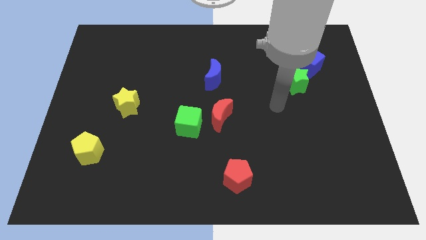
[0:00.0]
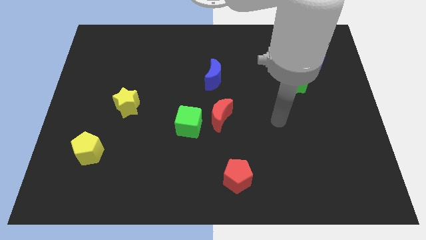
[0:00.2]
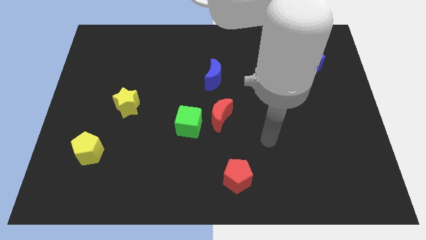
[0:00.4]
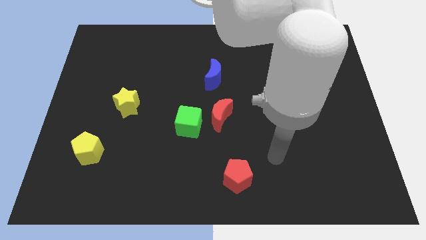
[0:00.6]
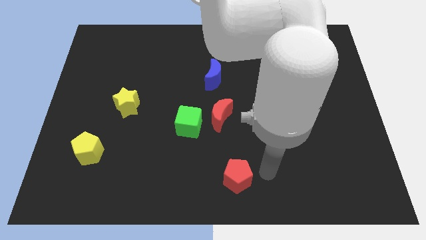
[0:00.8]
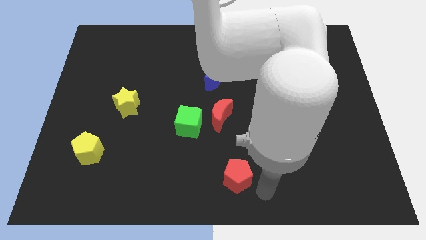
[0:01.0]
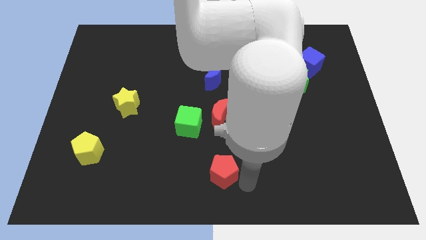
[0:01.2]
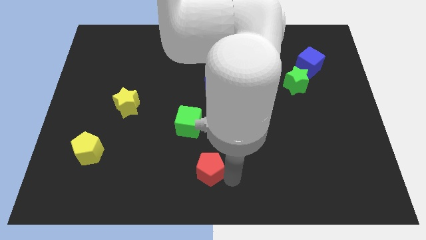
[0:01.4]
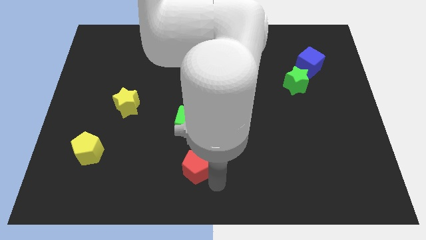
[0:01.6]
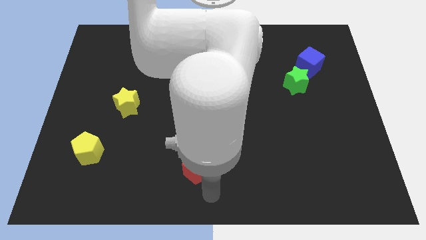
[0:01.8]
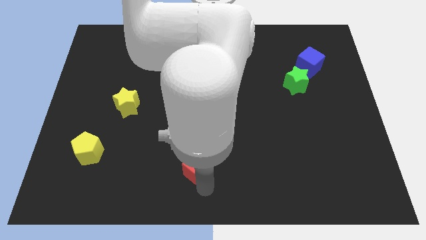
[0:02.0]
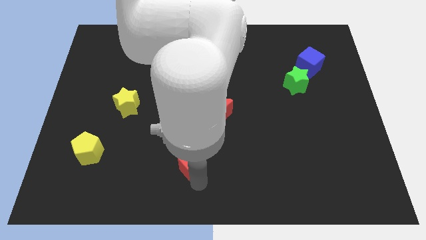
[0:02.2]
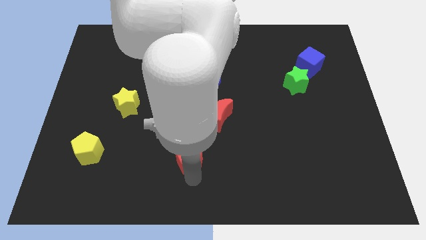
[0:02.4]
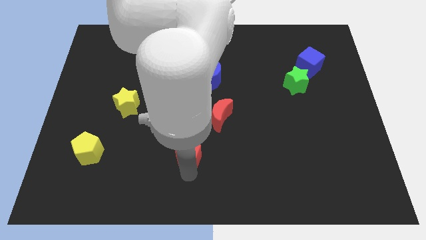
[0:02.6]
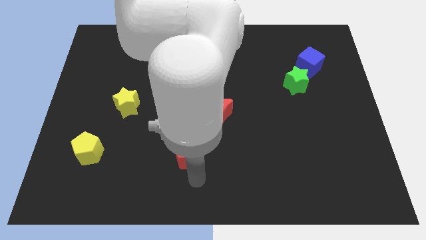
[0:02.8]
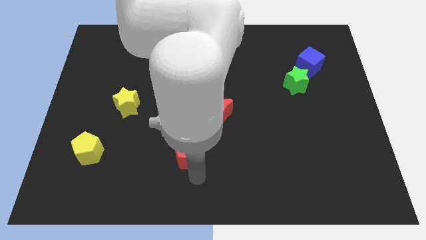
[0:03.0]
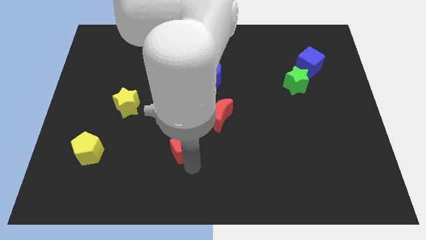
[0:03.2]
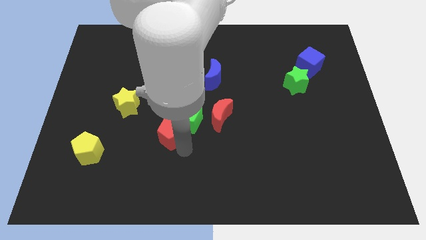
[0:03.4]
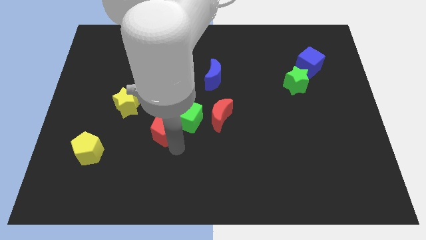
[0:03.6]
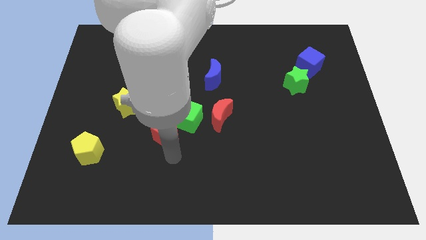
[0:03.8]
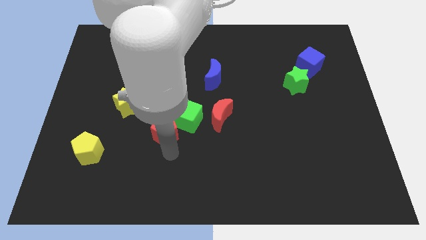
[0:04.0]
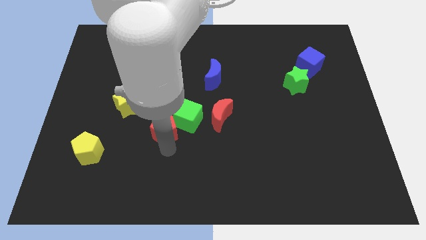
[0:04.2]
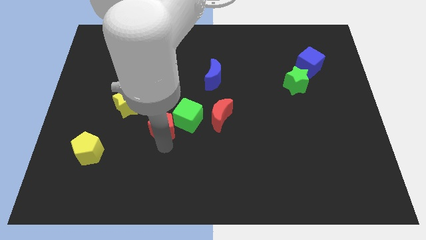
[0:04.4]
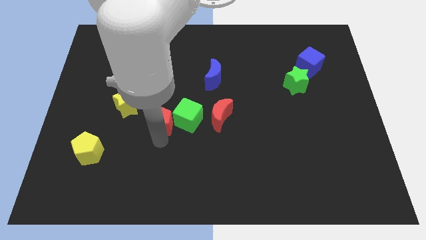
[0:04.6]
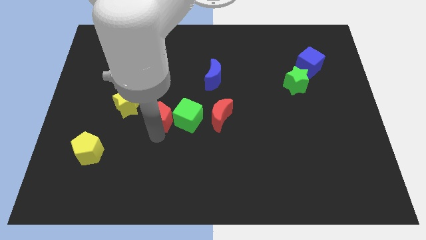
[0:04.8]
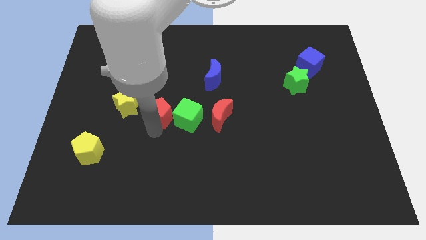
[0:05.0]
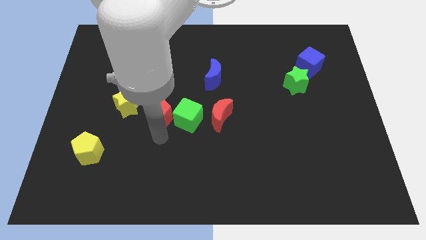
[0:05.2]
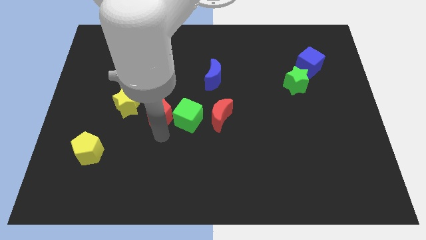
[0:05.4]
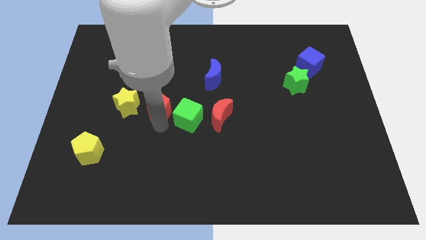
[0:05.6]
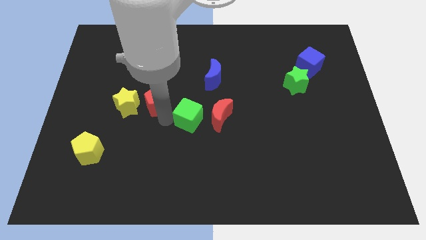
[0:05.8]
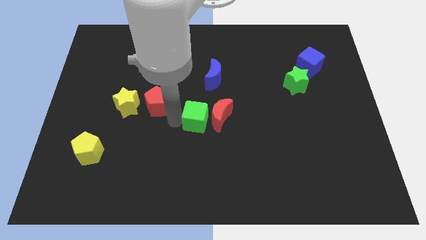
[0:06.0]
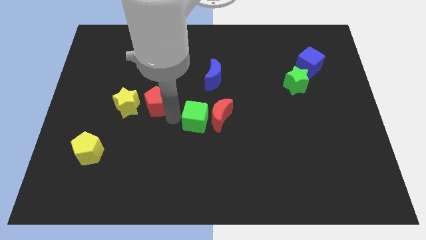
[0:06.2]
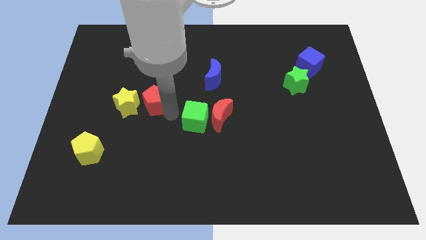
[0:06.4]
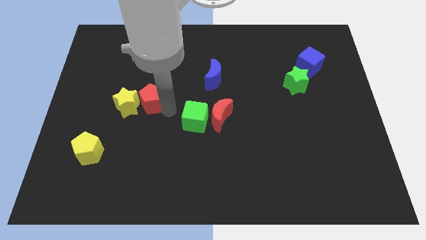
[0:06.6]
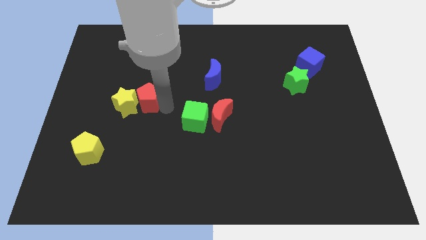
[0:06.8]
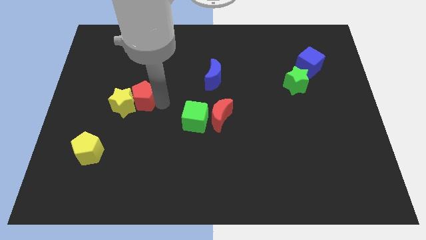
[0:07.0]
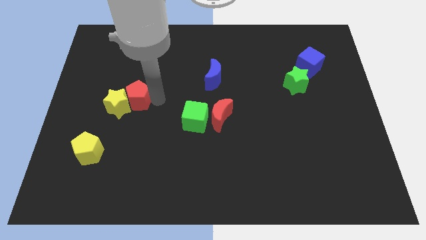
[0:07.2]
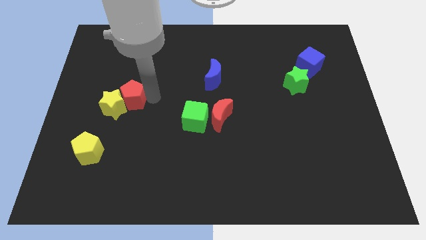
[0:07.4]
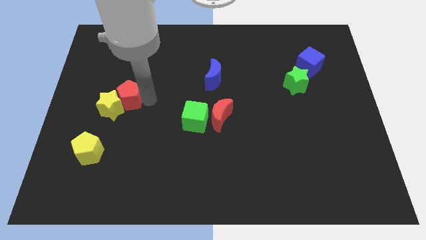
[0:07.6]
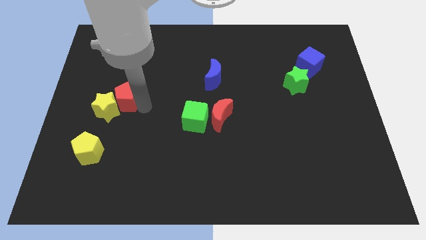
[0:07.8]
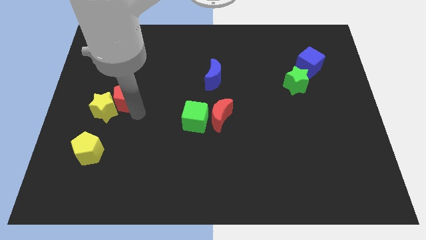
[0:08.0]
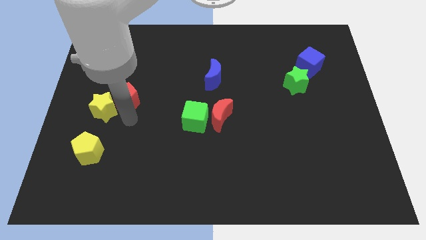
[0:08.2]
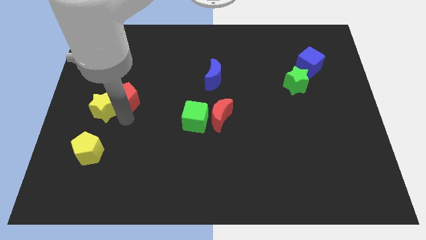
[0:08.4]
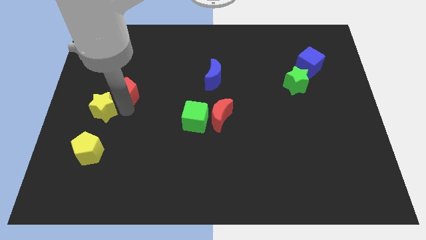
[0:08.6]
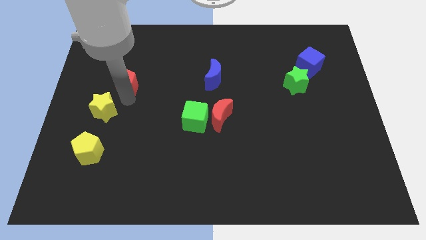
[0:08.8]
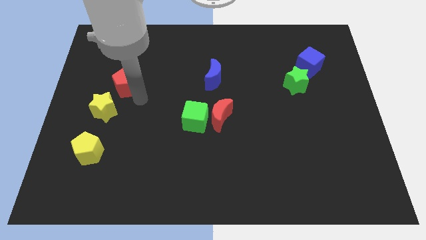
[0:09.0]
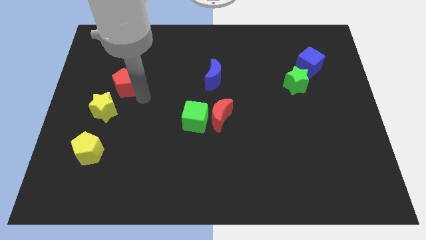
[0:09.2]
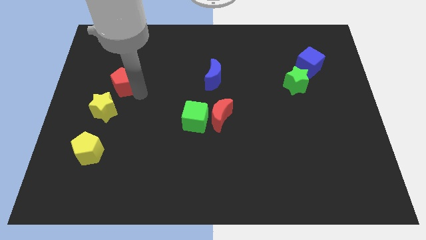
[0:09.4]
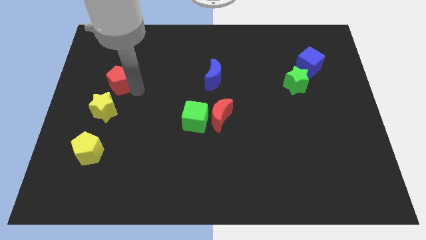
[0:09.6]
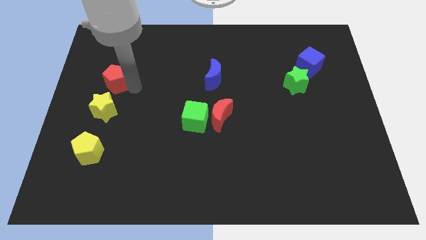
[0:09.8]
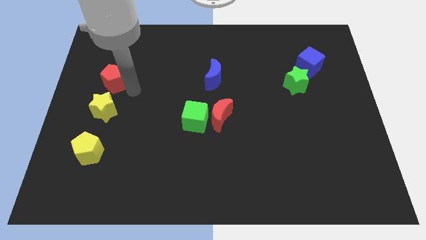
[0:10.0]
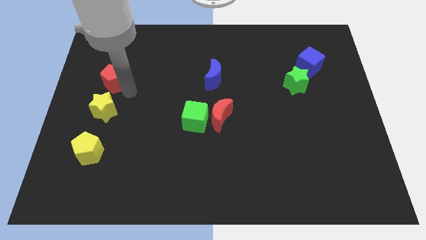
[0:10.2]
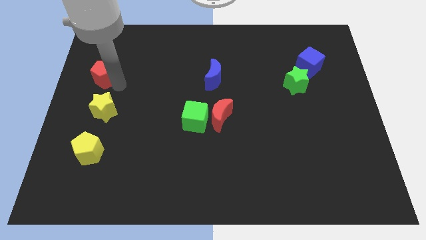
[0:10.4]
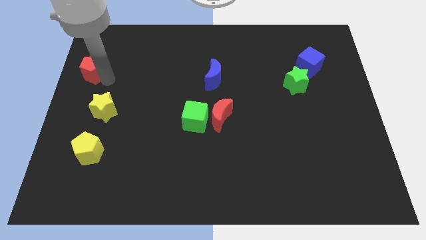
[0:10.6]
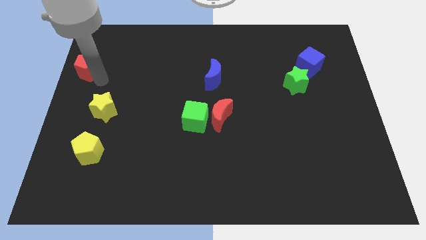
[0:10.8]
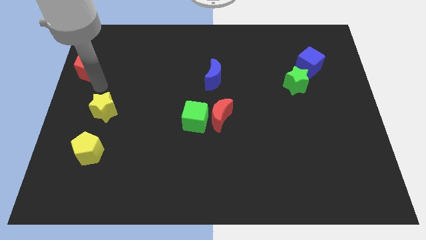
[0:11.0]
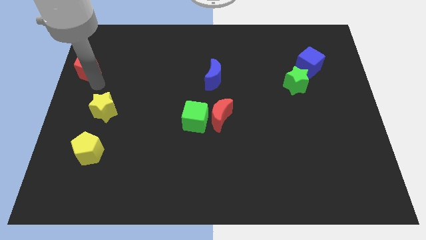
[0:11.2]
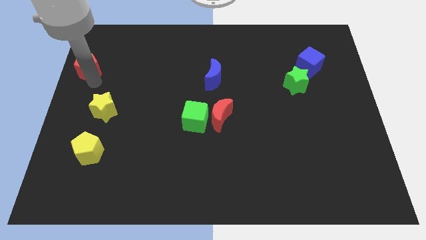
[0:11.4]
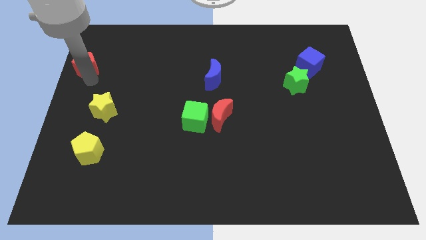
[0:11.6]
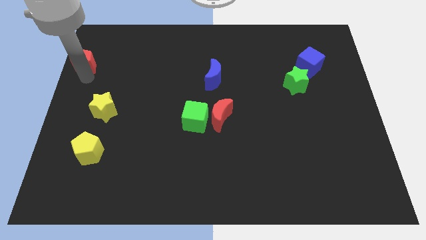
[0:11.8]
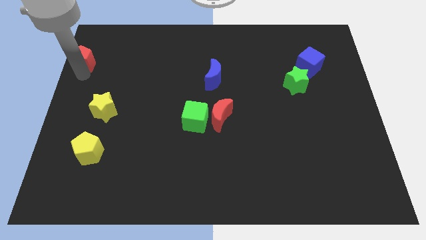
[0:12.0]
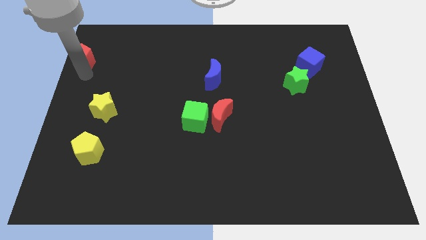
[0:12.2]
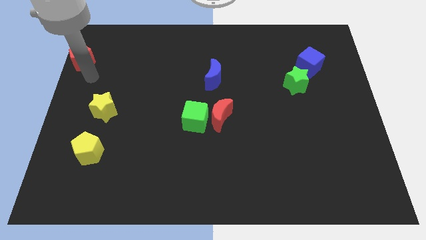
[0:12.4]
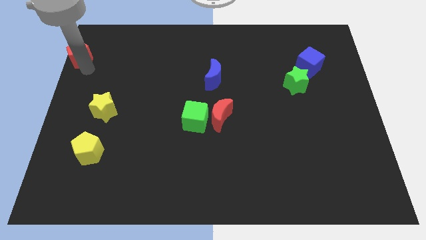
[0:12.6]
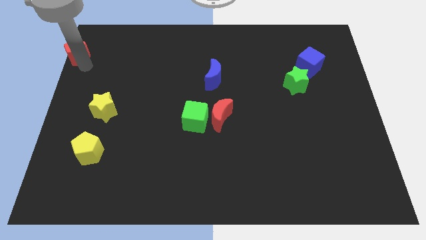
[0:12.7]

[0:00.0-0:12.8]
slide the red pentagon to the upper left corner

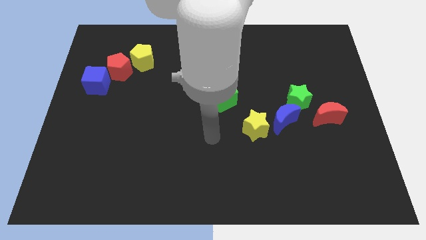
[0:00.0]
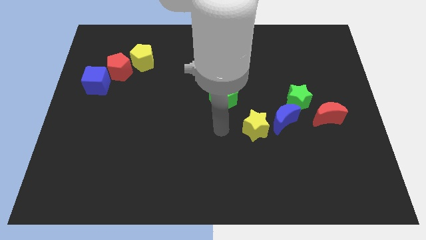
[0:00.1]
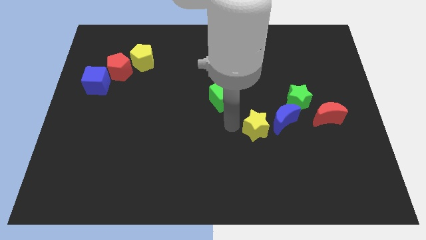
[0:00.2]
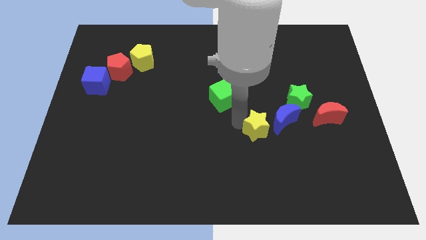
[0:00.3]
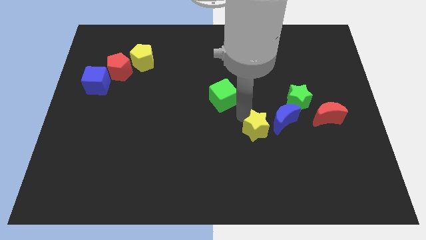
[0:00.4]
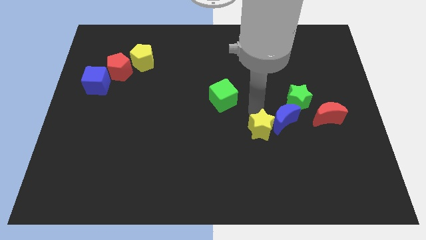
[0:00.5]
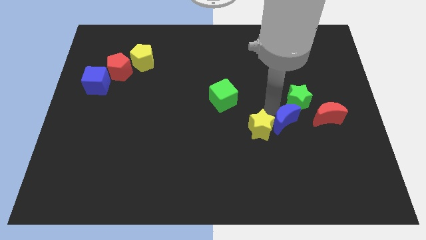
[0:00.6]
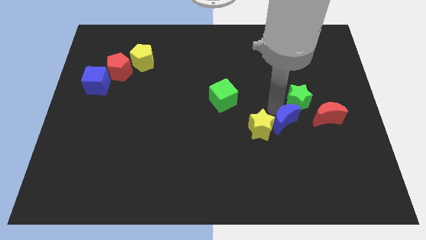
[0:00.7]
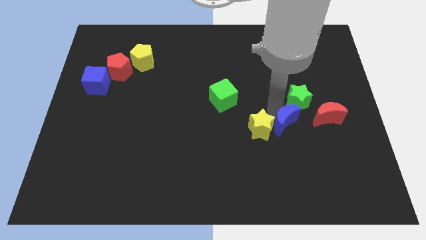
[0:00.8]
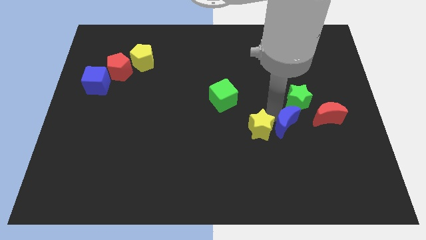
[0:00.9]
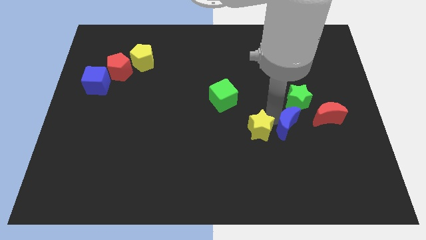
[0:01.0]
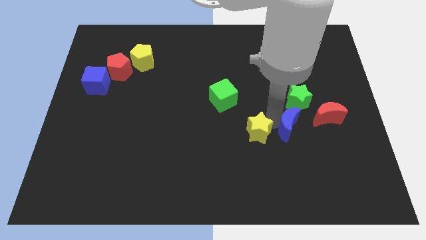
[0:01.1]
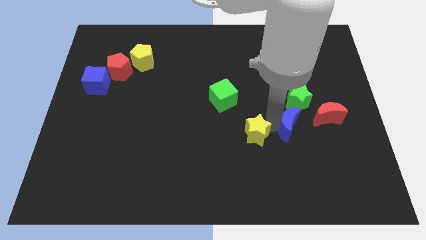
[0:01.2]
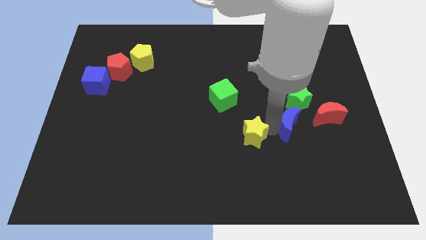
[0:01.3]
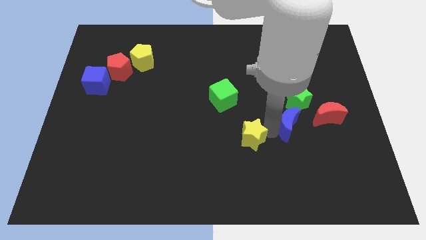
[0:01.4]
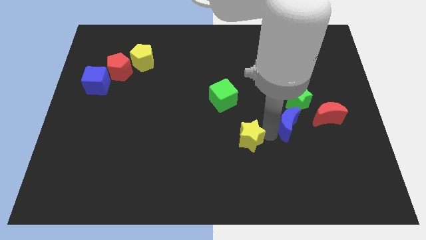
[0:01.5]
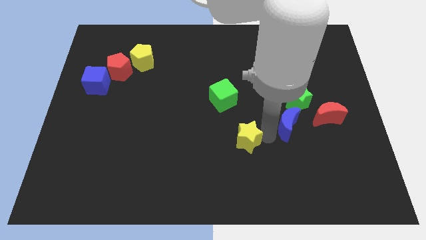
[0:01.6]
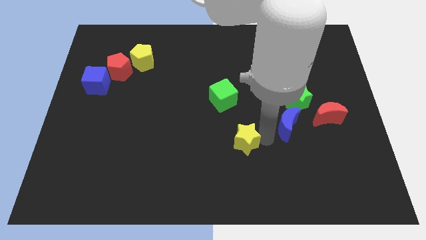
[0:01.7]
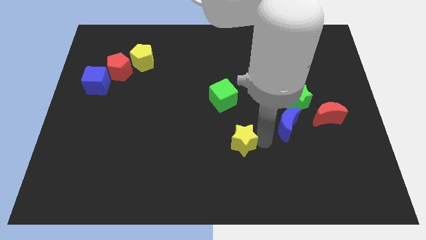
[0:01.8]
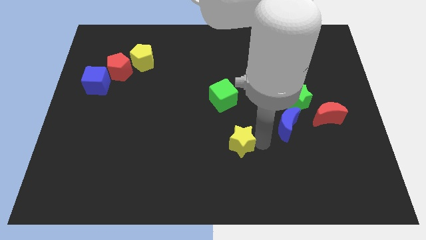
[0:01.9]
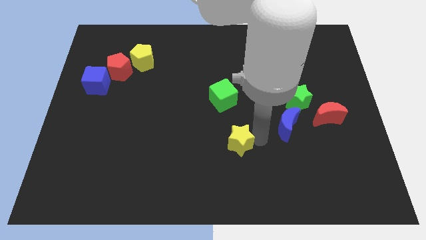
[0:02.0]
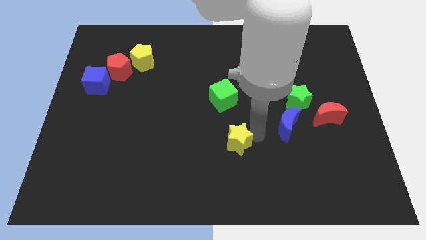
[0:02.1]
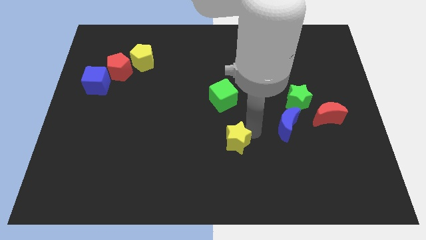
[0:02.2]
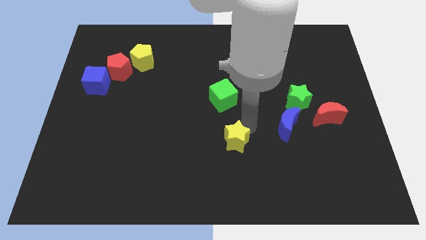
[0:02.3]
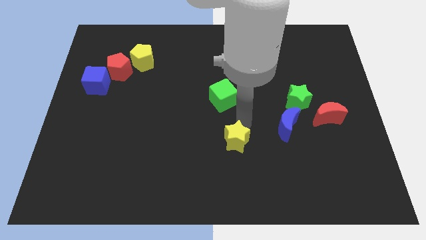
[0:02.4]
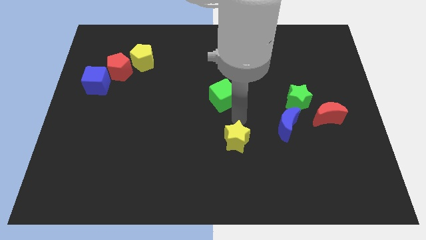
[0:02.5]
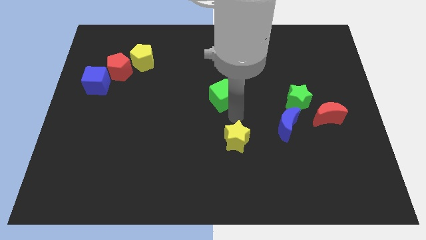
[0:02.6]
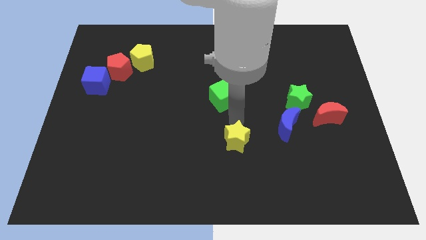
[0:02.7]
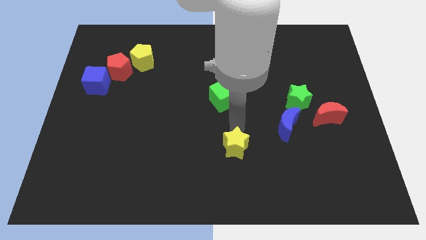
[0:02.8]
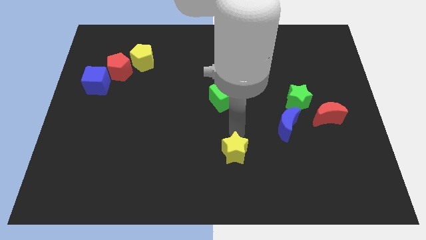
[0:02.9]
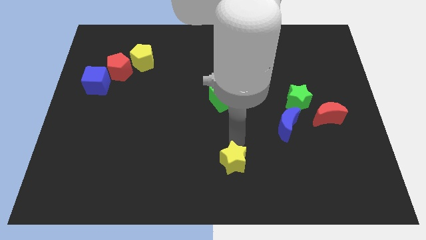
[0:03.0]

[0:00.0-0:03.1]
put the yellow star to the bottom
